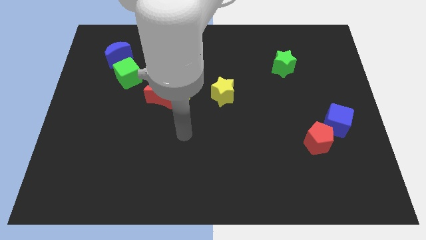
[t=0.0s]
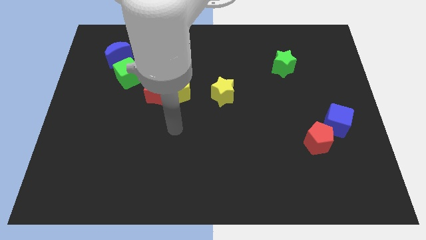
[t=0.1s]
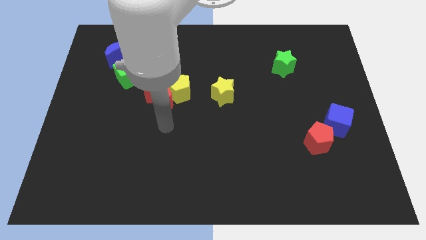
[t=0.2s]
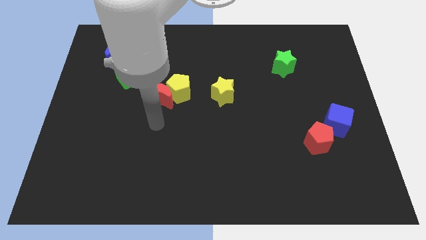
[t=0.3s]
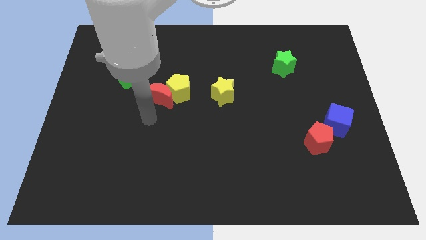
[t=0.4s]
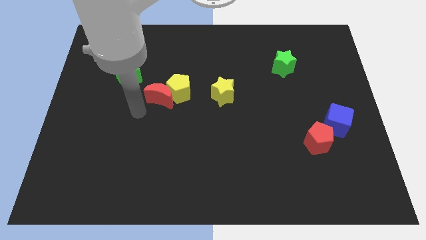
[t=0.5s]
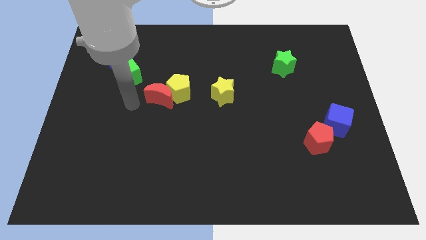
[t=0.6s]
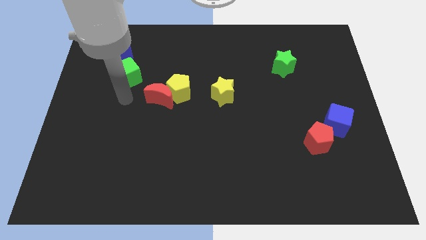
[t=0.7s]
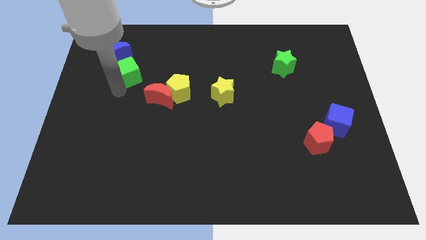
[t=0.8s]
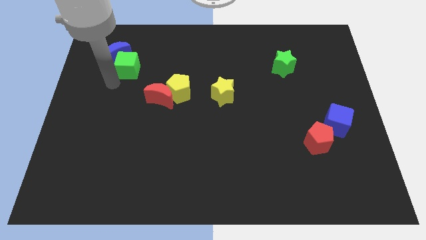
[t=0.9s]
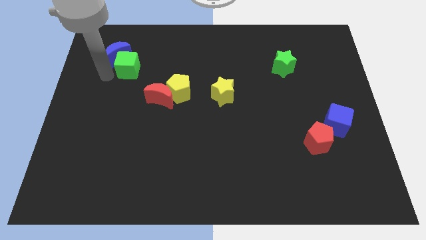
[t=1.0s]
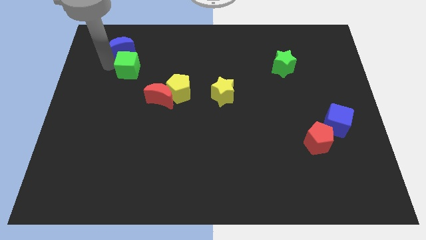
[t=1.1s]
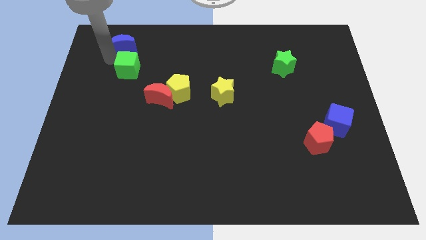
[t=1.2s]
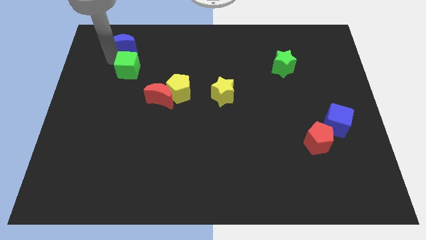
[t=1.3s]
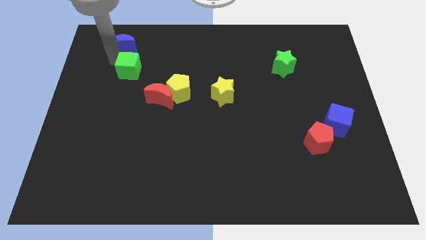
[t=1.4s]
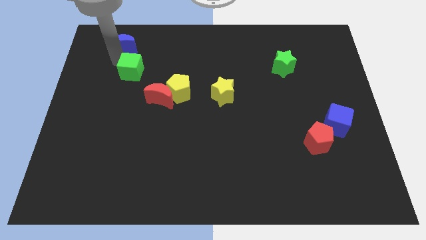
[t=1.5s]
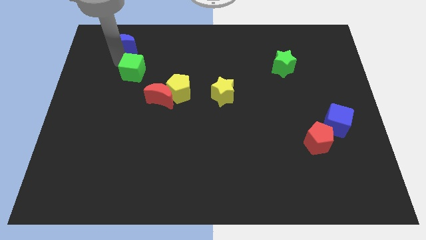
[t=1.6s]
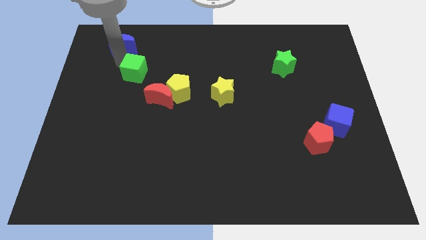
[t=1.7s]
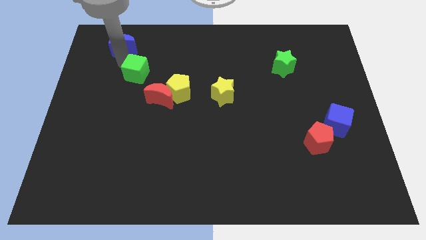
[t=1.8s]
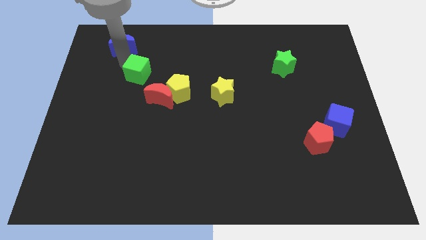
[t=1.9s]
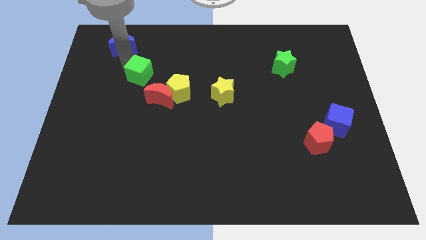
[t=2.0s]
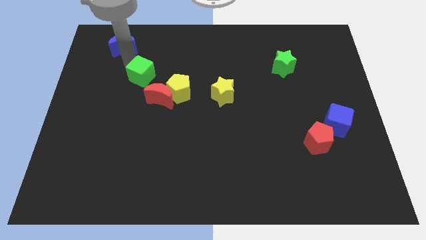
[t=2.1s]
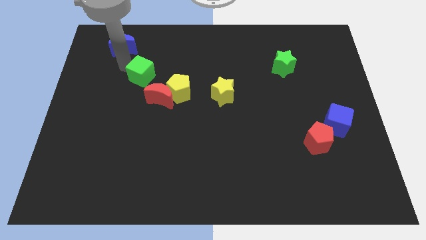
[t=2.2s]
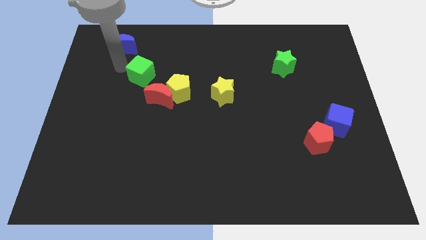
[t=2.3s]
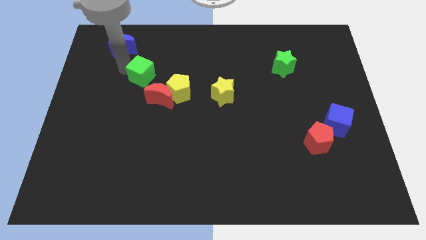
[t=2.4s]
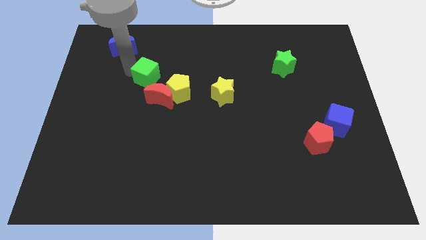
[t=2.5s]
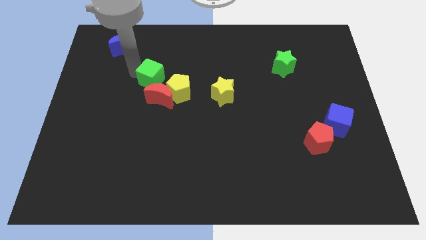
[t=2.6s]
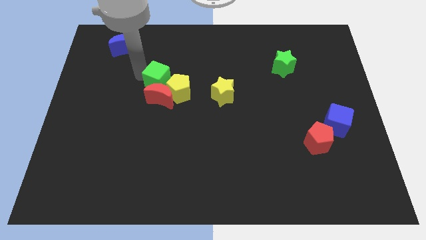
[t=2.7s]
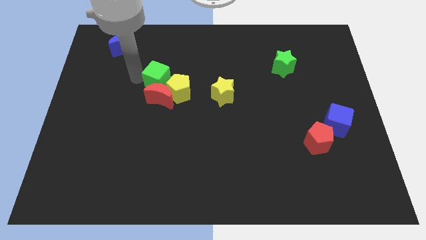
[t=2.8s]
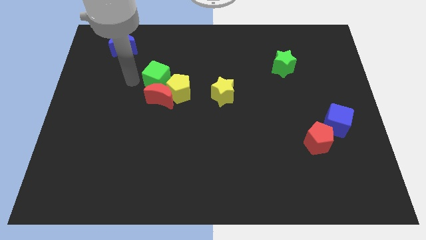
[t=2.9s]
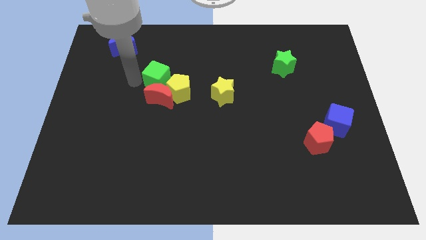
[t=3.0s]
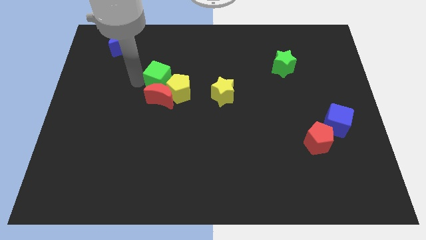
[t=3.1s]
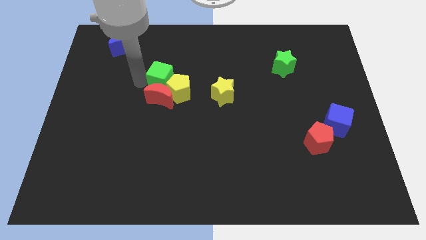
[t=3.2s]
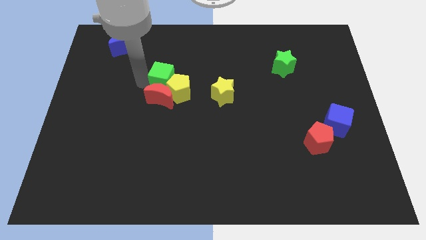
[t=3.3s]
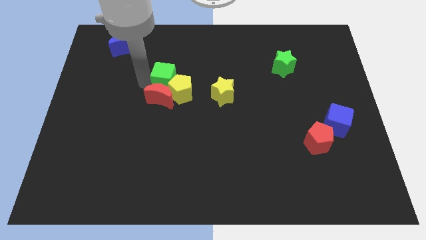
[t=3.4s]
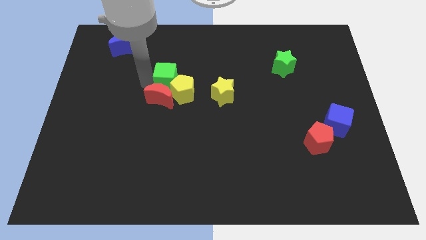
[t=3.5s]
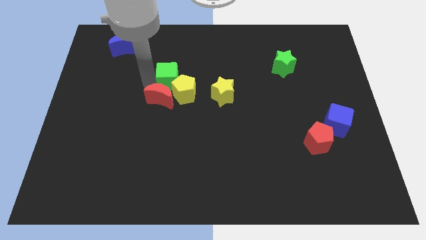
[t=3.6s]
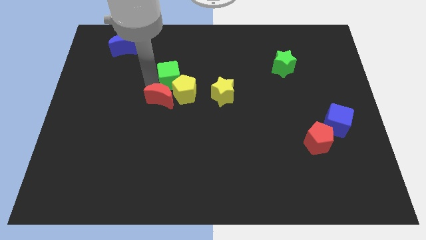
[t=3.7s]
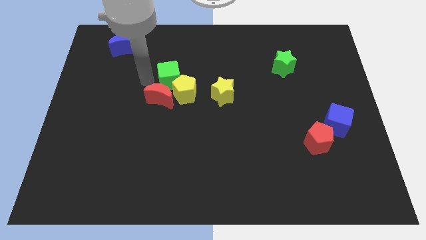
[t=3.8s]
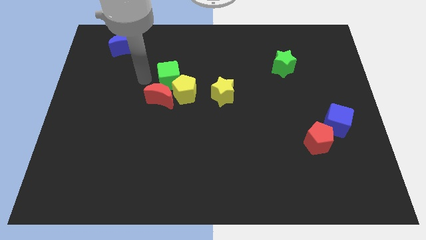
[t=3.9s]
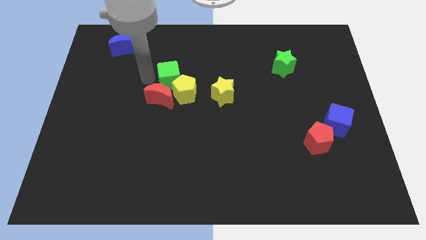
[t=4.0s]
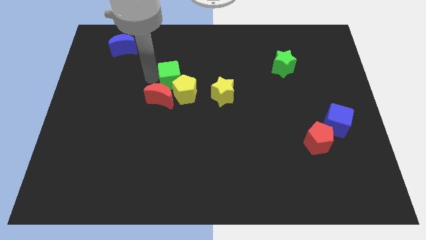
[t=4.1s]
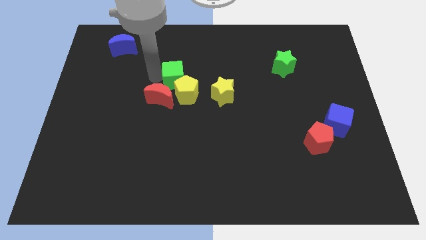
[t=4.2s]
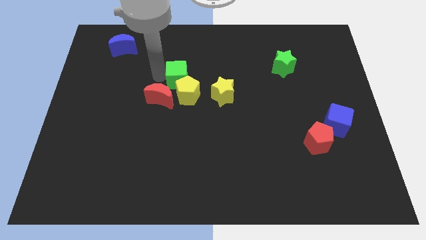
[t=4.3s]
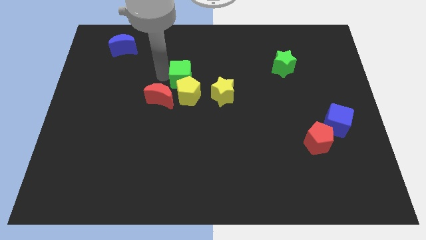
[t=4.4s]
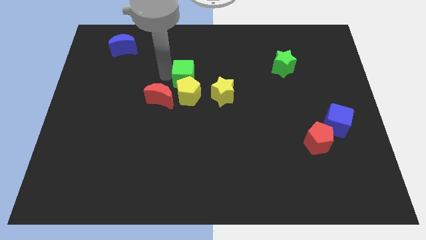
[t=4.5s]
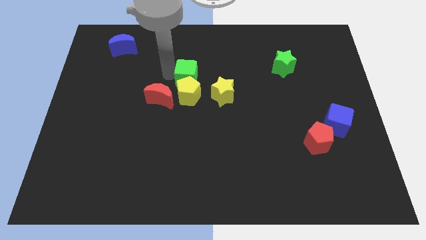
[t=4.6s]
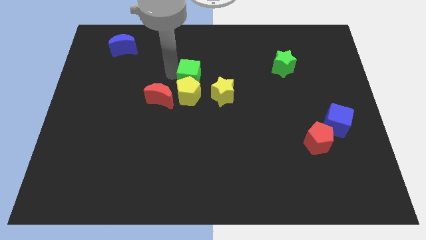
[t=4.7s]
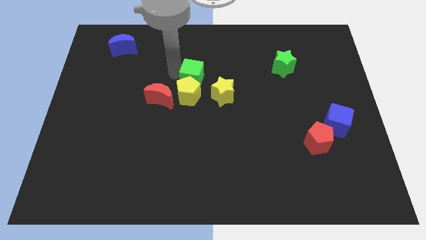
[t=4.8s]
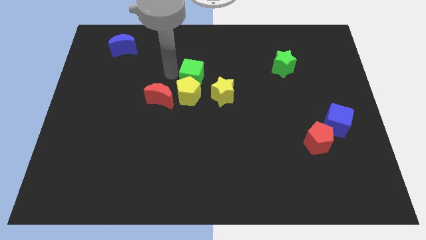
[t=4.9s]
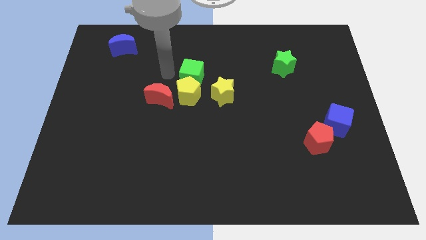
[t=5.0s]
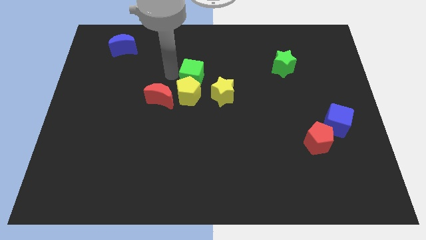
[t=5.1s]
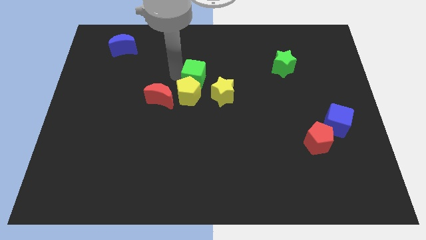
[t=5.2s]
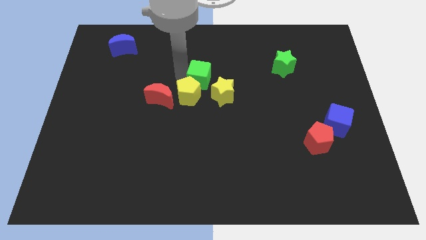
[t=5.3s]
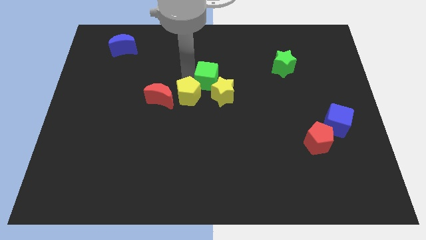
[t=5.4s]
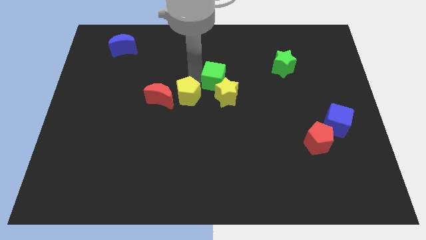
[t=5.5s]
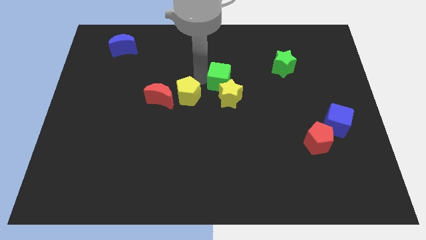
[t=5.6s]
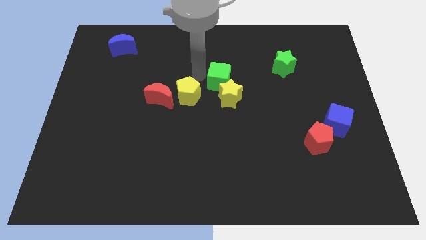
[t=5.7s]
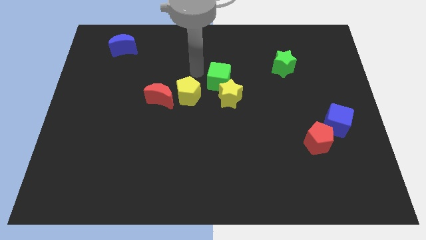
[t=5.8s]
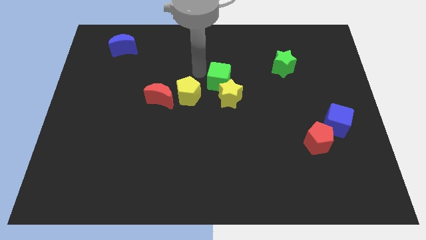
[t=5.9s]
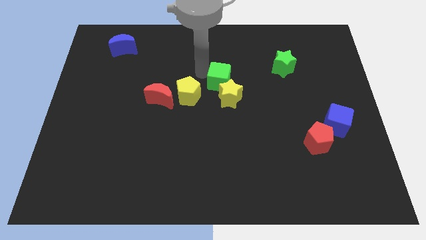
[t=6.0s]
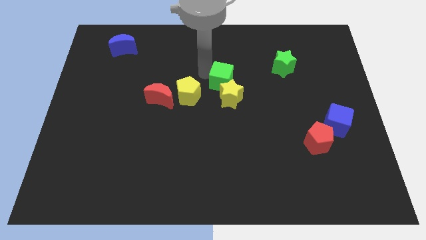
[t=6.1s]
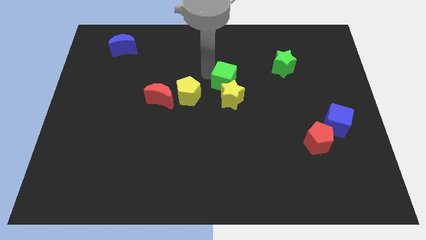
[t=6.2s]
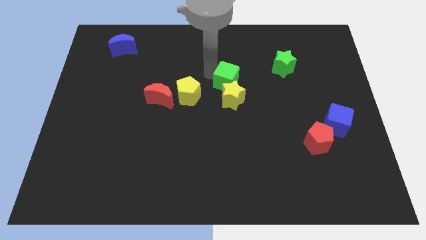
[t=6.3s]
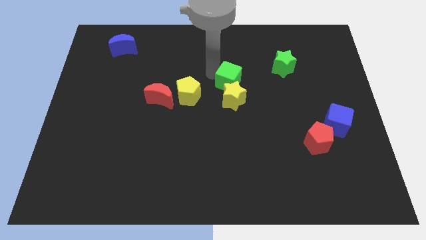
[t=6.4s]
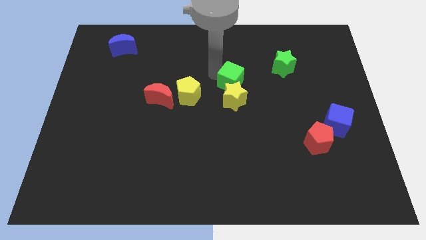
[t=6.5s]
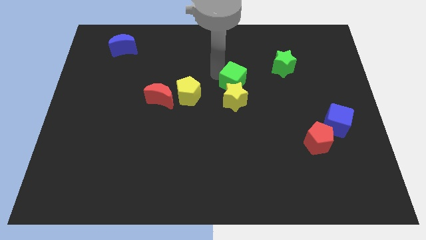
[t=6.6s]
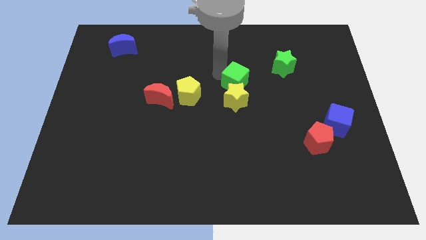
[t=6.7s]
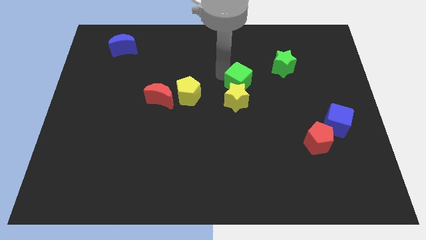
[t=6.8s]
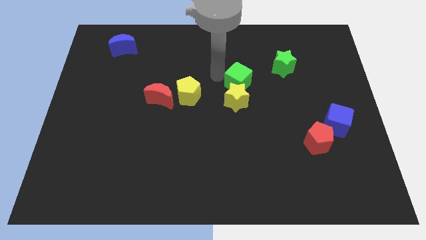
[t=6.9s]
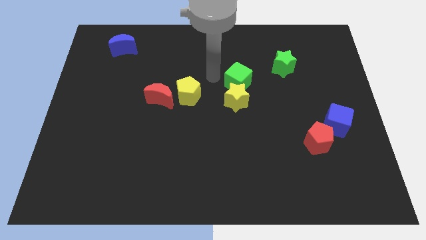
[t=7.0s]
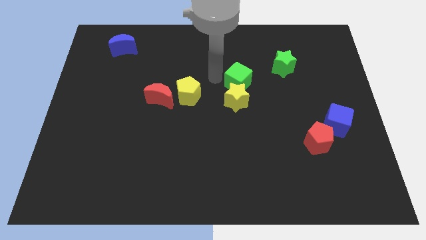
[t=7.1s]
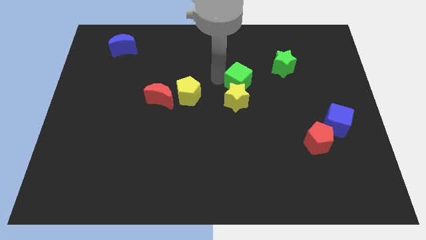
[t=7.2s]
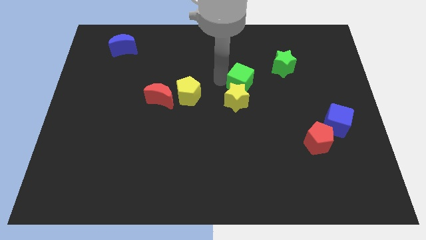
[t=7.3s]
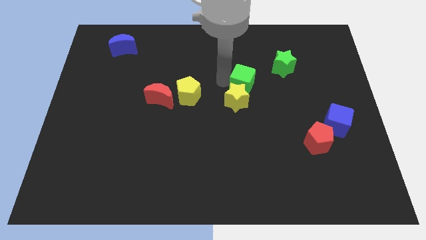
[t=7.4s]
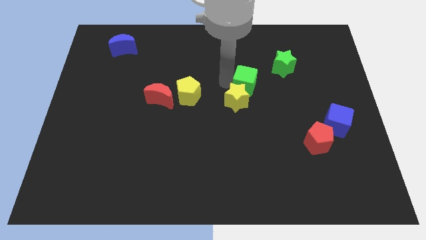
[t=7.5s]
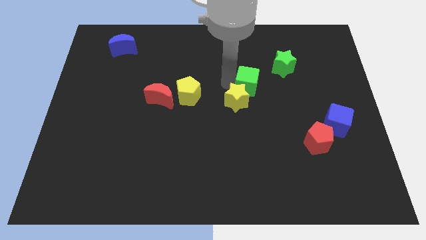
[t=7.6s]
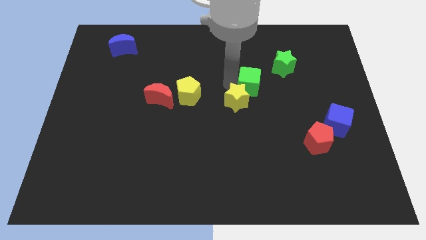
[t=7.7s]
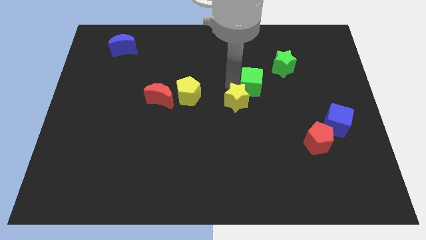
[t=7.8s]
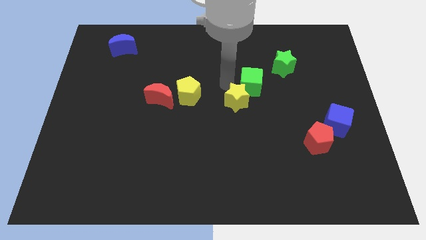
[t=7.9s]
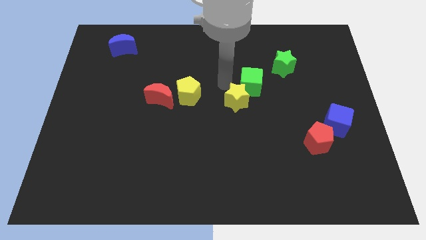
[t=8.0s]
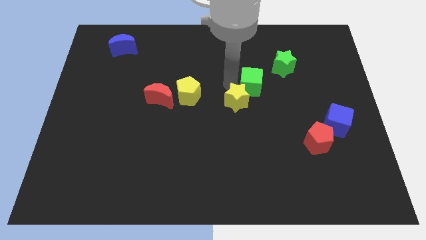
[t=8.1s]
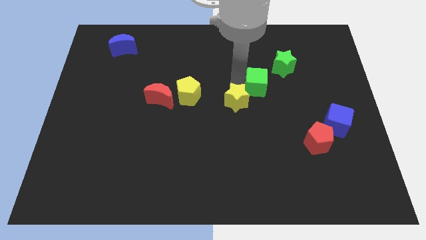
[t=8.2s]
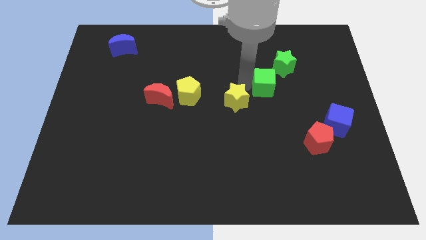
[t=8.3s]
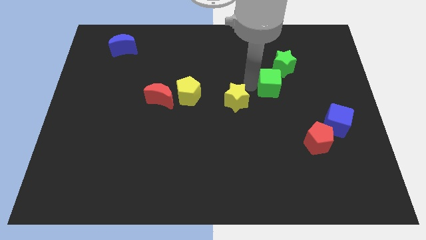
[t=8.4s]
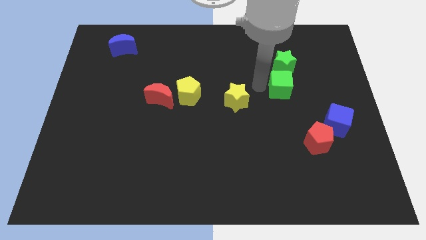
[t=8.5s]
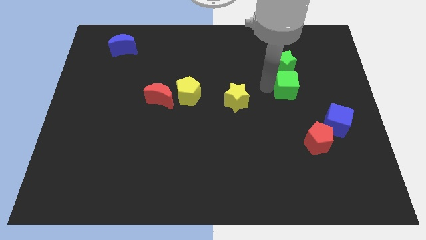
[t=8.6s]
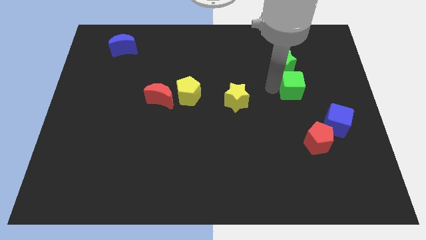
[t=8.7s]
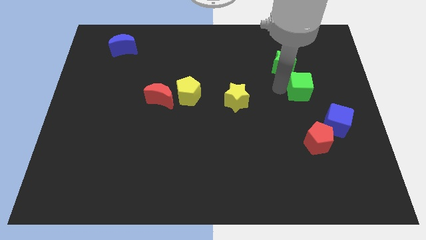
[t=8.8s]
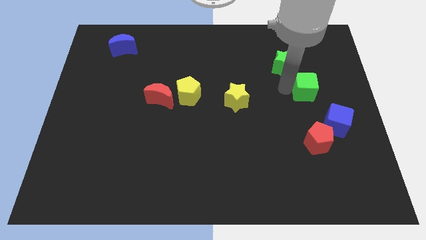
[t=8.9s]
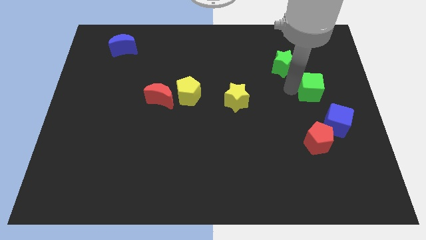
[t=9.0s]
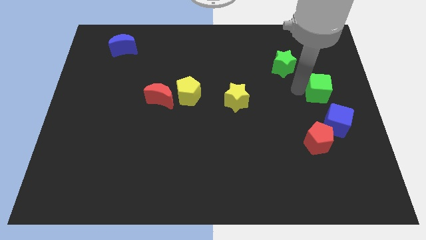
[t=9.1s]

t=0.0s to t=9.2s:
put the green cube to the right side of the board
